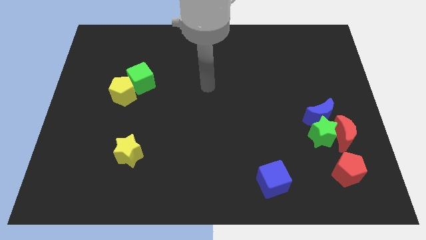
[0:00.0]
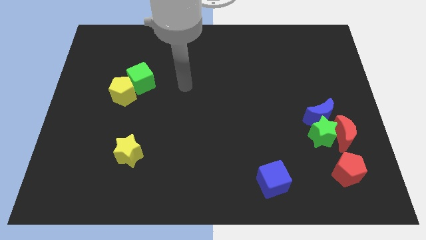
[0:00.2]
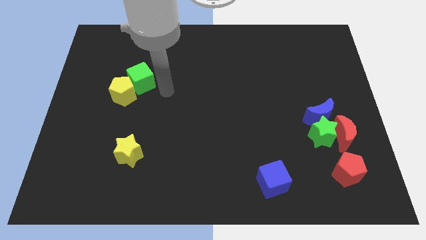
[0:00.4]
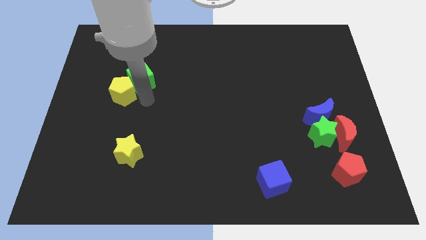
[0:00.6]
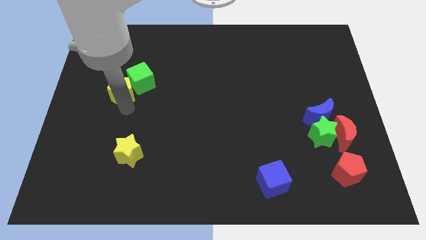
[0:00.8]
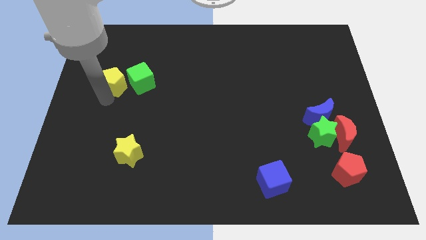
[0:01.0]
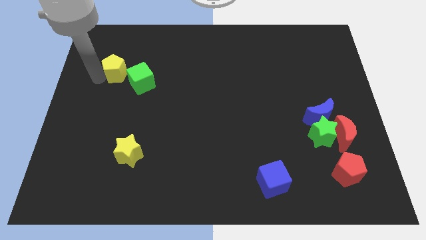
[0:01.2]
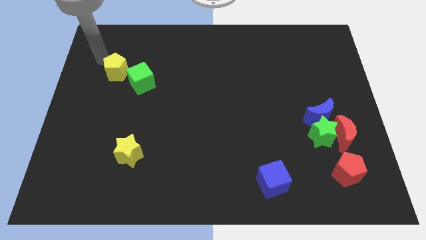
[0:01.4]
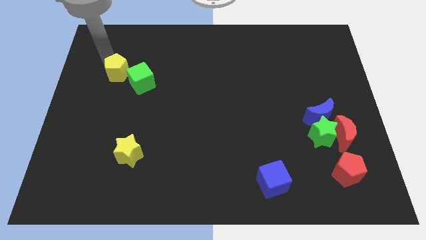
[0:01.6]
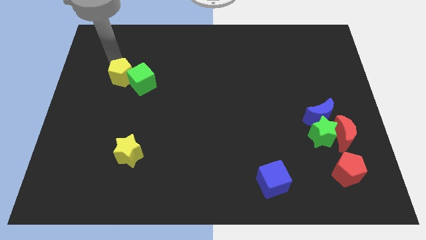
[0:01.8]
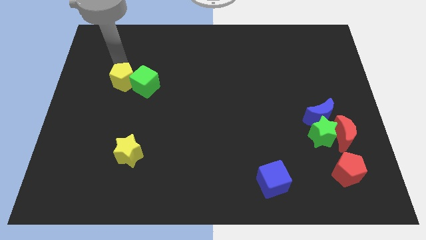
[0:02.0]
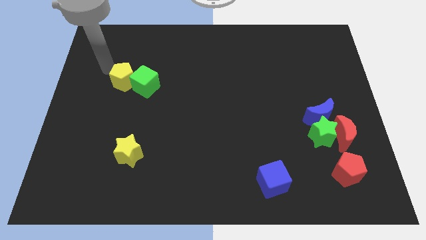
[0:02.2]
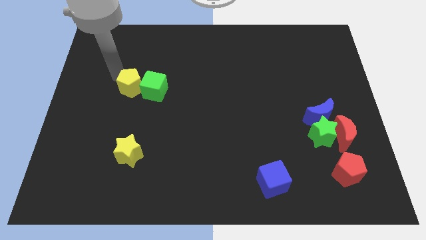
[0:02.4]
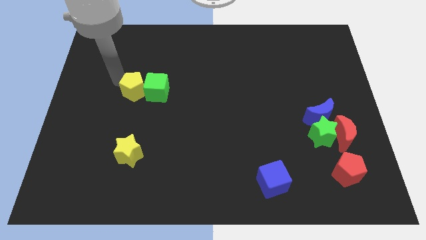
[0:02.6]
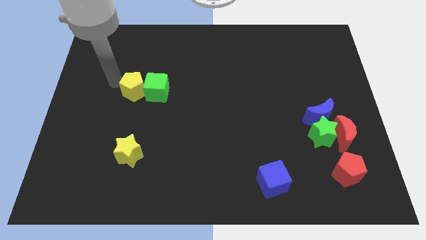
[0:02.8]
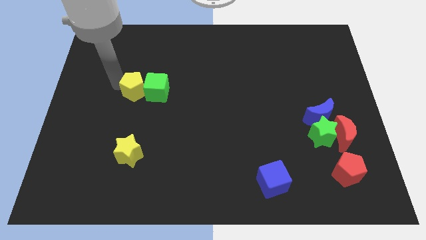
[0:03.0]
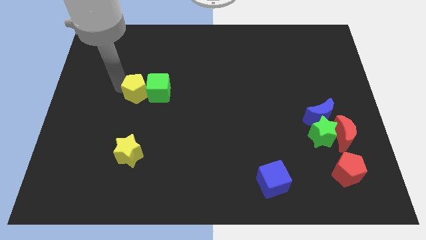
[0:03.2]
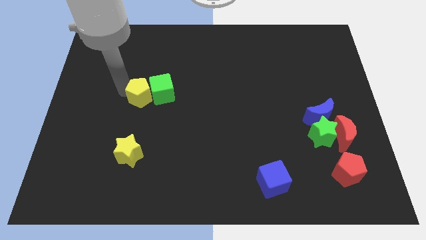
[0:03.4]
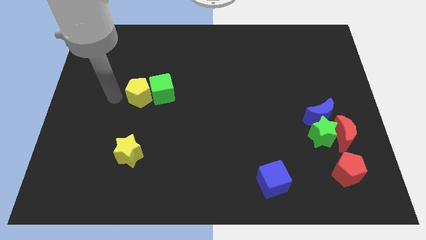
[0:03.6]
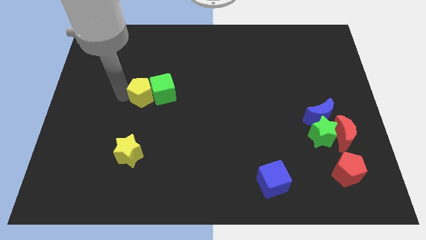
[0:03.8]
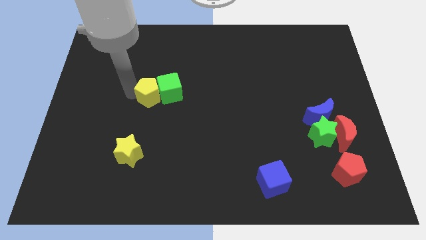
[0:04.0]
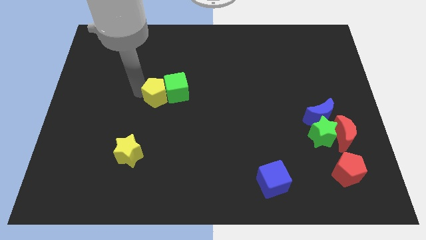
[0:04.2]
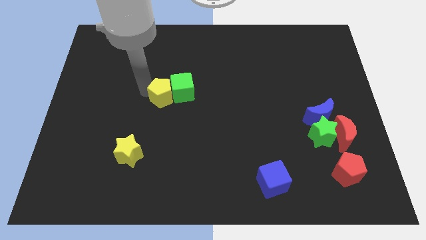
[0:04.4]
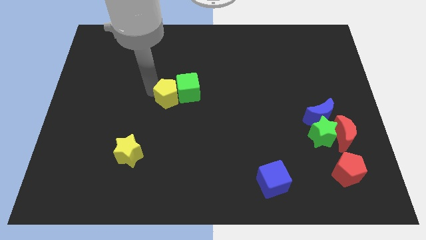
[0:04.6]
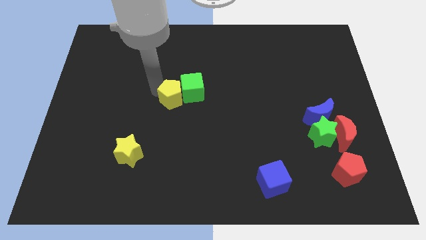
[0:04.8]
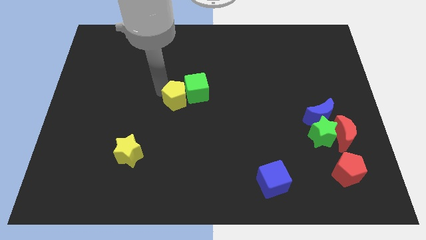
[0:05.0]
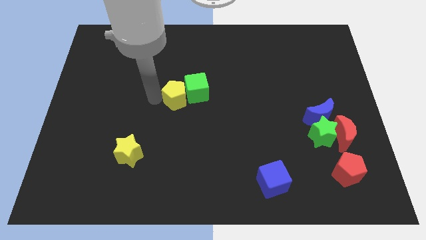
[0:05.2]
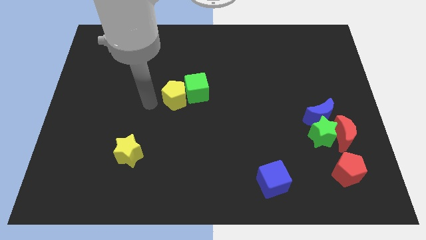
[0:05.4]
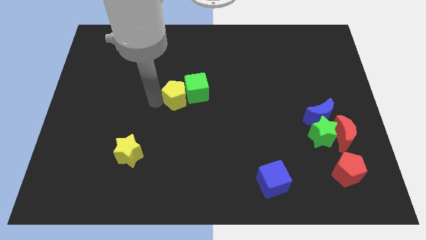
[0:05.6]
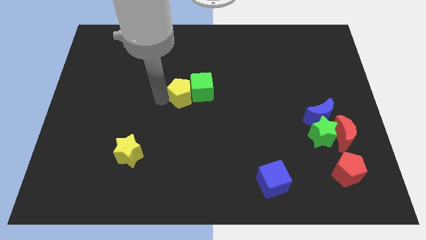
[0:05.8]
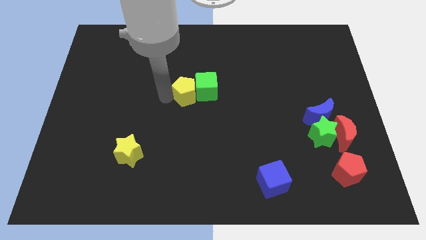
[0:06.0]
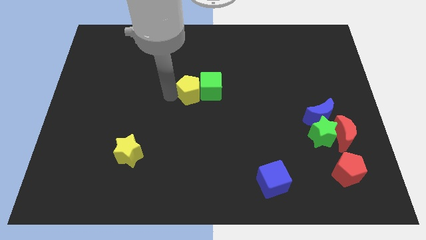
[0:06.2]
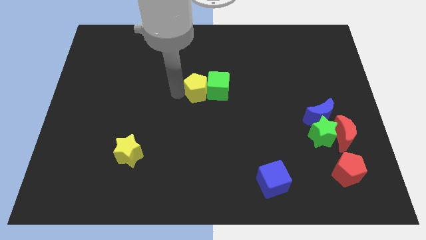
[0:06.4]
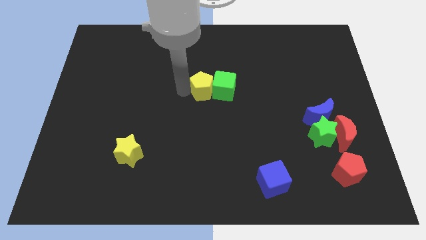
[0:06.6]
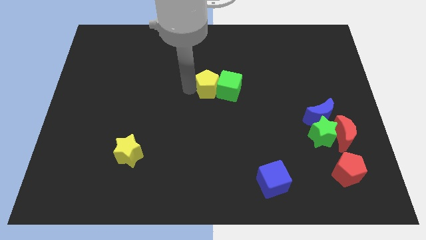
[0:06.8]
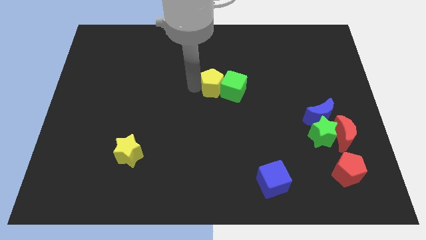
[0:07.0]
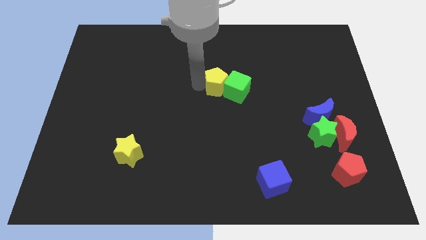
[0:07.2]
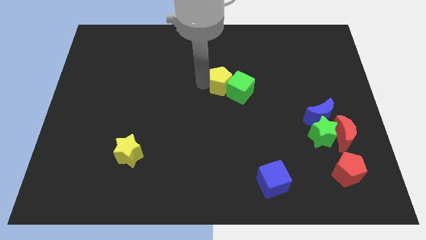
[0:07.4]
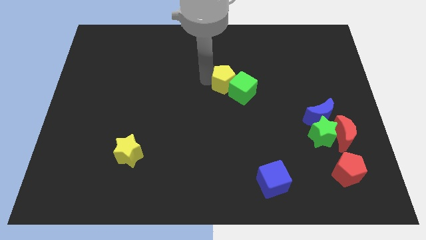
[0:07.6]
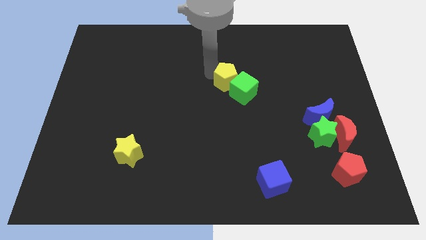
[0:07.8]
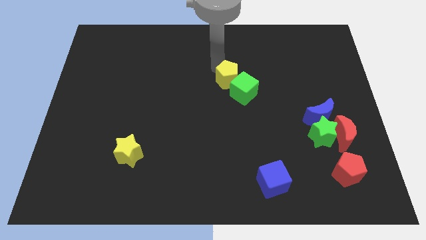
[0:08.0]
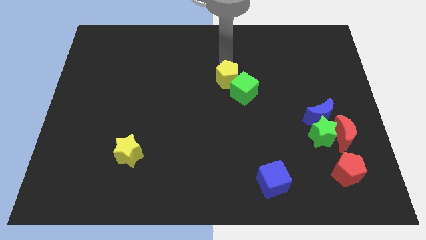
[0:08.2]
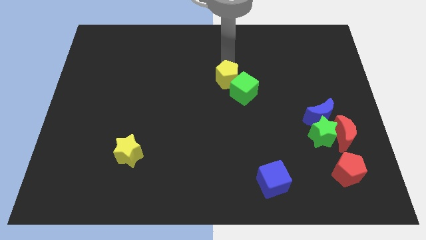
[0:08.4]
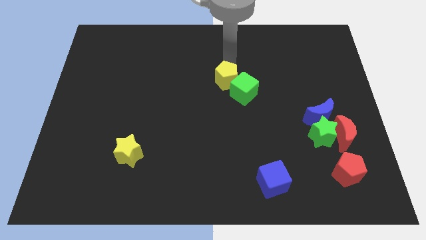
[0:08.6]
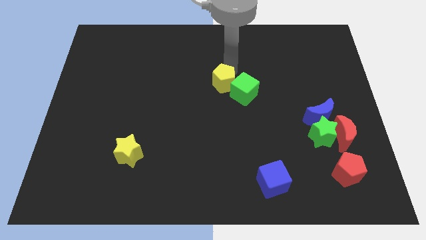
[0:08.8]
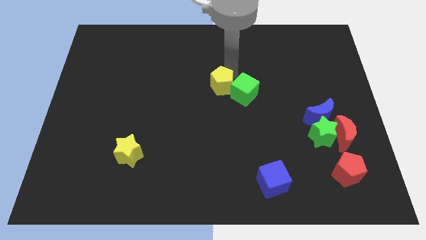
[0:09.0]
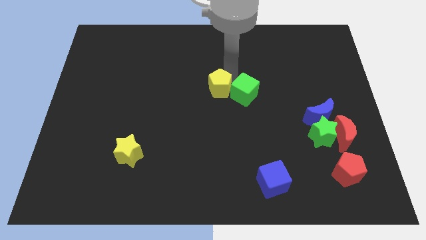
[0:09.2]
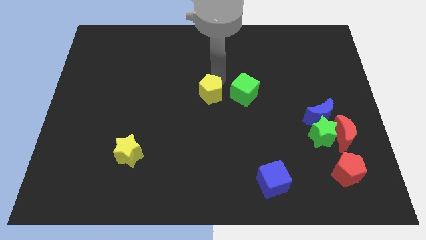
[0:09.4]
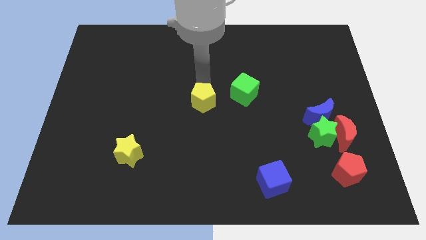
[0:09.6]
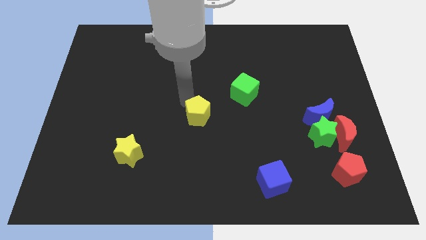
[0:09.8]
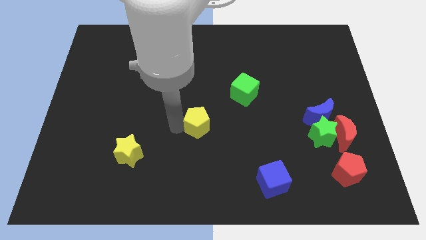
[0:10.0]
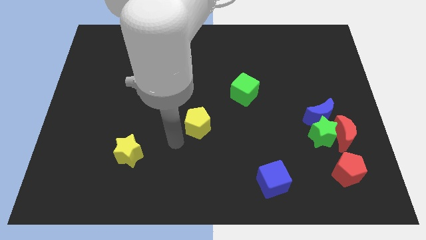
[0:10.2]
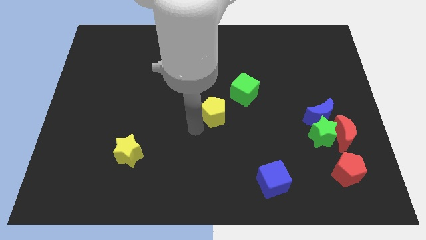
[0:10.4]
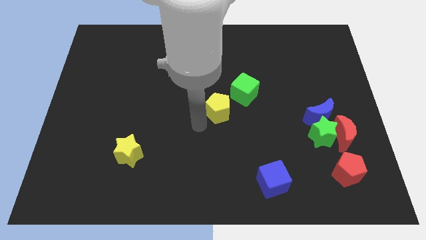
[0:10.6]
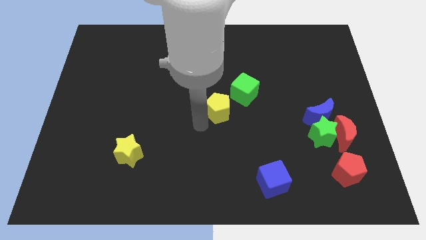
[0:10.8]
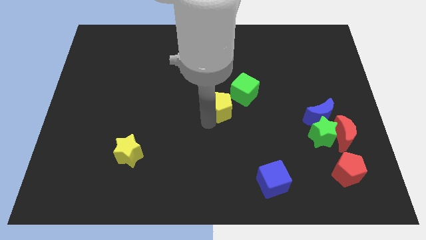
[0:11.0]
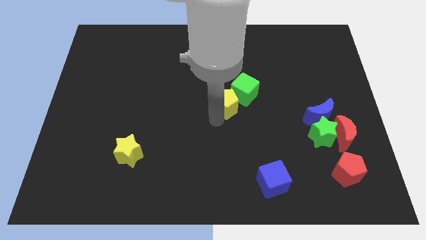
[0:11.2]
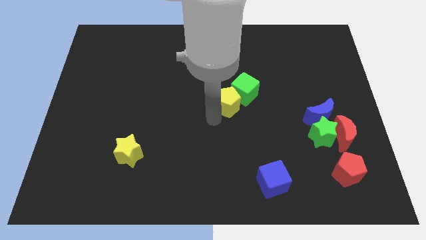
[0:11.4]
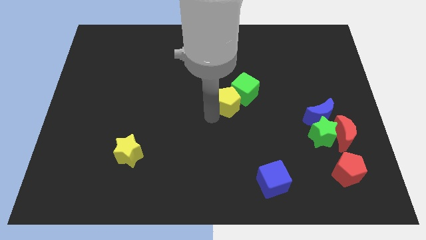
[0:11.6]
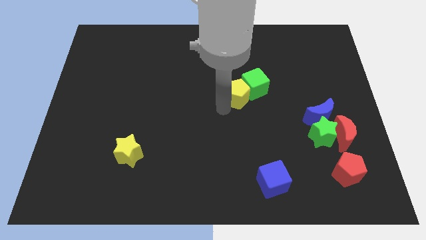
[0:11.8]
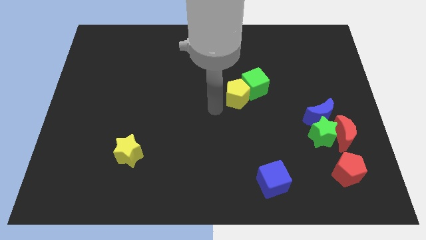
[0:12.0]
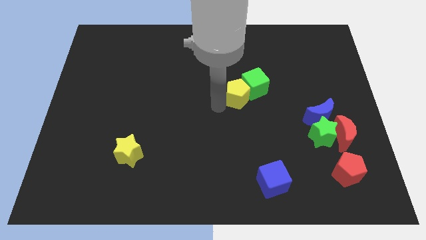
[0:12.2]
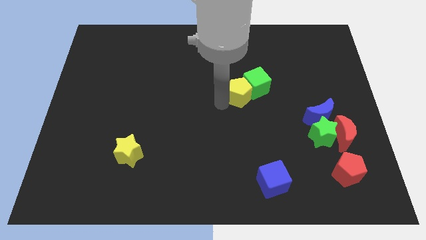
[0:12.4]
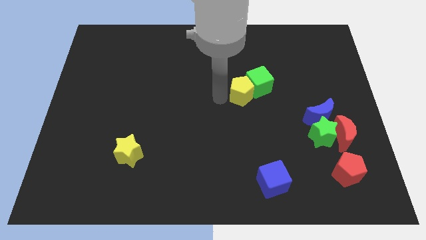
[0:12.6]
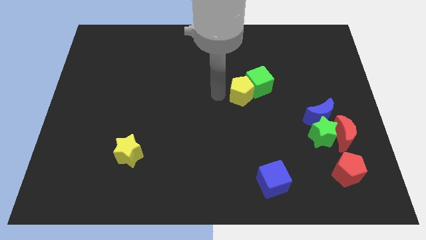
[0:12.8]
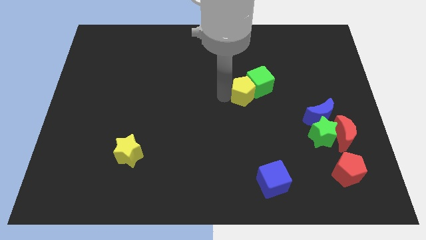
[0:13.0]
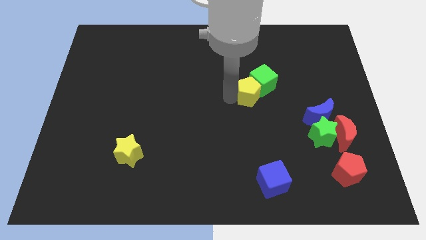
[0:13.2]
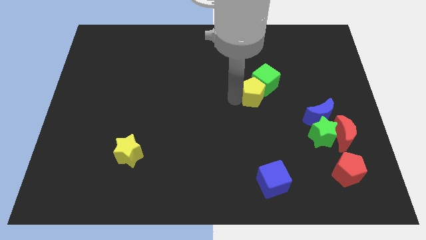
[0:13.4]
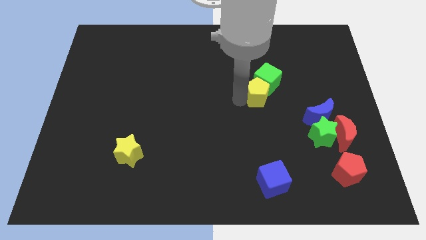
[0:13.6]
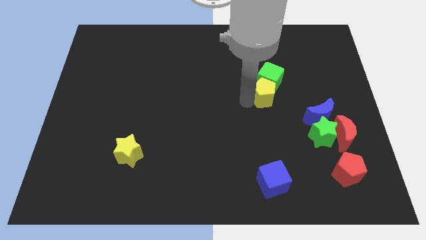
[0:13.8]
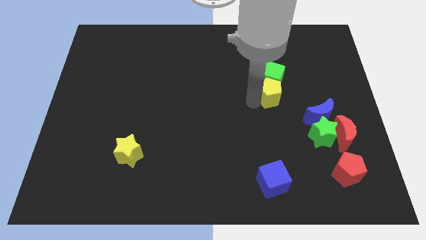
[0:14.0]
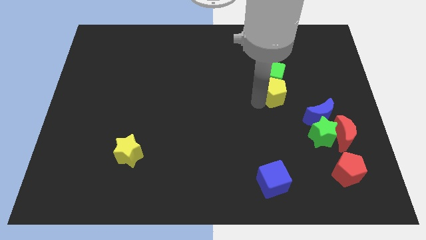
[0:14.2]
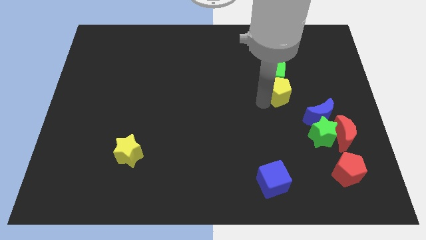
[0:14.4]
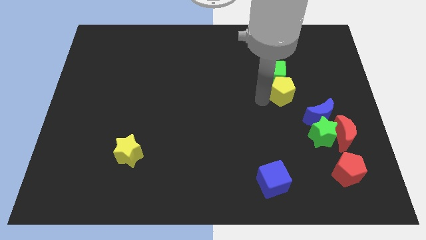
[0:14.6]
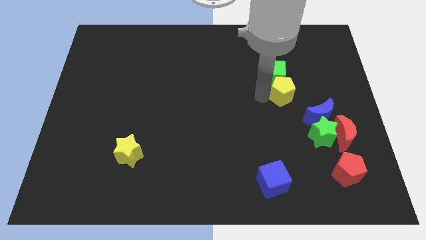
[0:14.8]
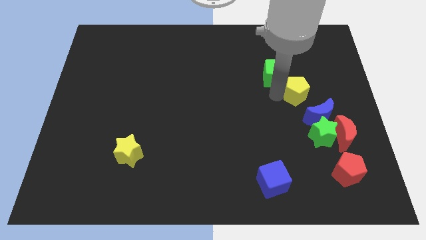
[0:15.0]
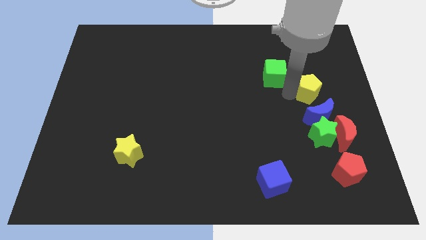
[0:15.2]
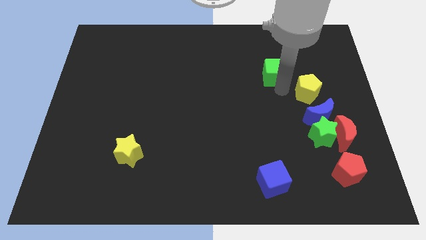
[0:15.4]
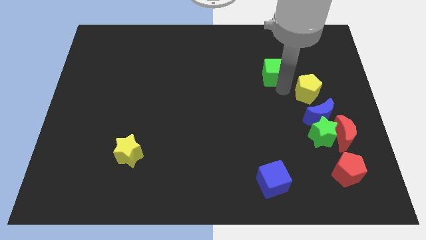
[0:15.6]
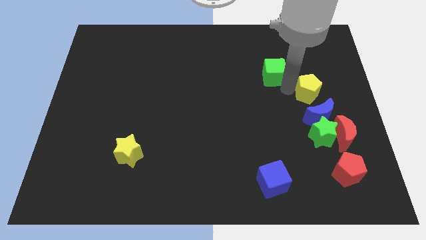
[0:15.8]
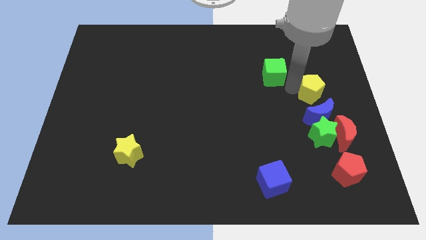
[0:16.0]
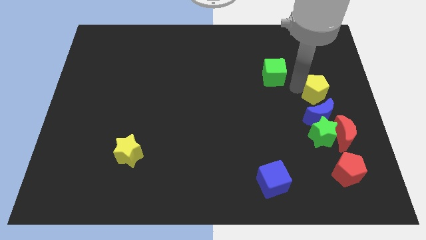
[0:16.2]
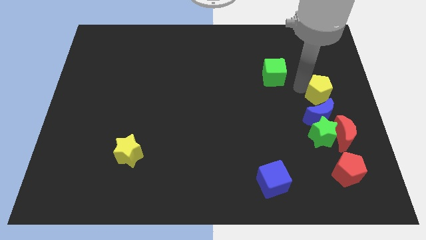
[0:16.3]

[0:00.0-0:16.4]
push the yellow pentagon to the center right
